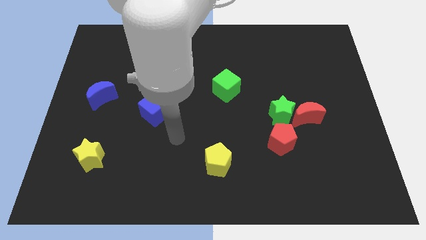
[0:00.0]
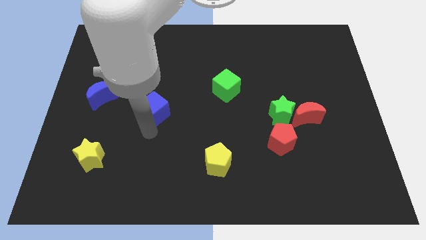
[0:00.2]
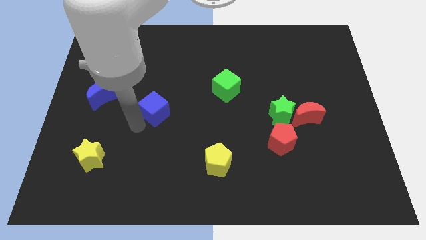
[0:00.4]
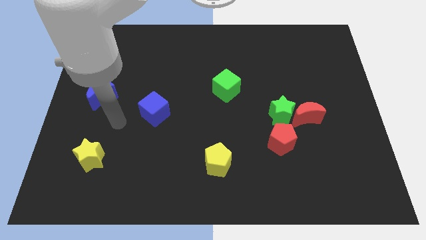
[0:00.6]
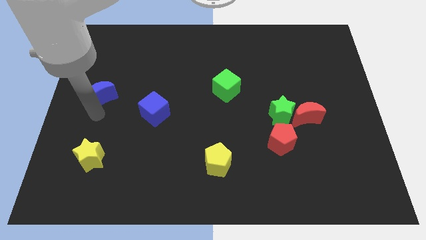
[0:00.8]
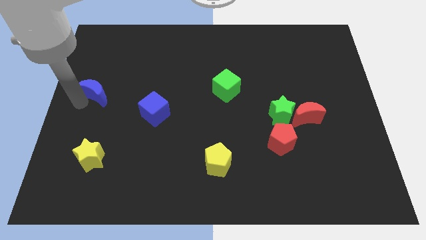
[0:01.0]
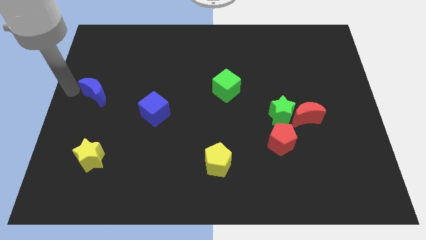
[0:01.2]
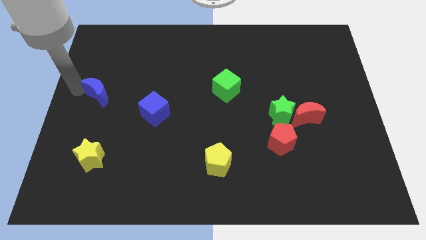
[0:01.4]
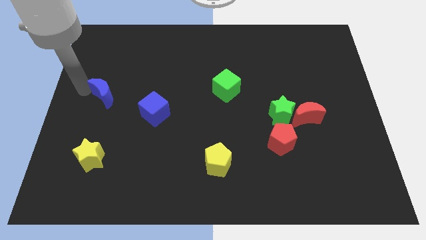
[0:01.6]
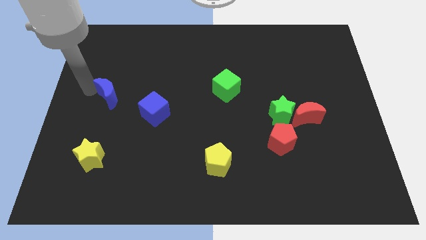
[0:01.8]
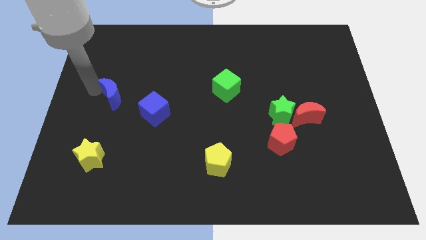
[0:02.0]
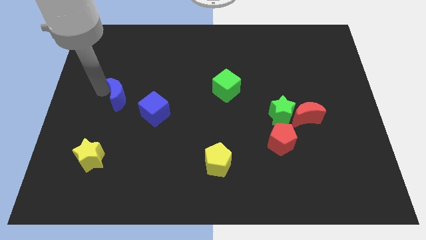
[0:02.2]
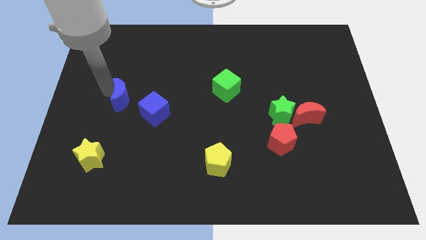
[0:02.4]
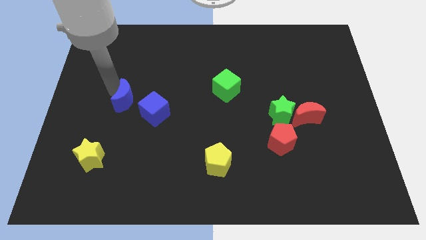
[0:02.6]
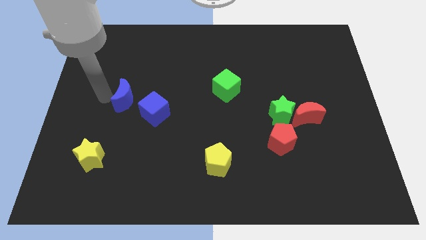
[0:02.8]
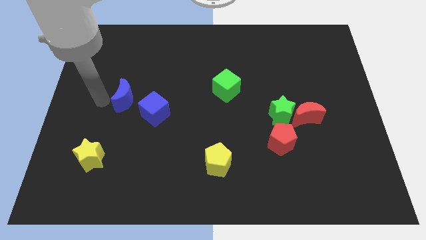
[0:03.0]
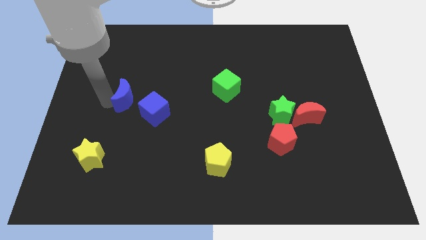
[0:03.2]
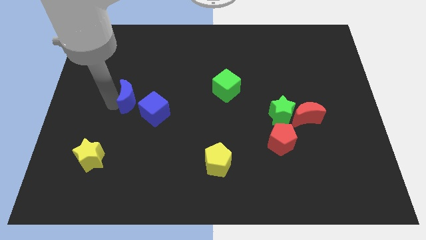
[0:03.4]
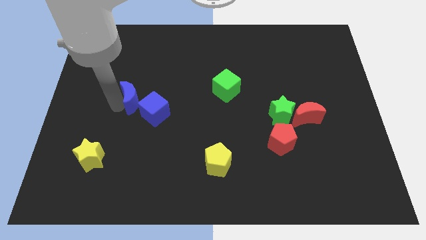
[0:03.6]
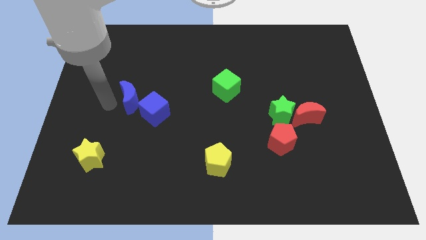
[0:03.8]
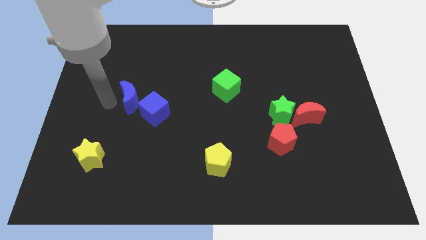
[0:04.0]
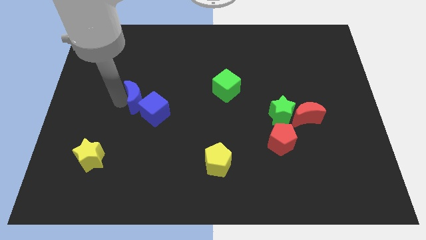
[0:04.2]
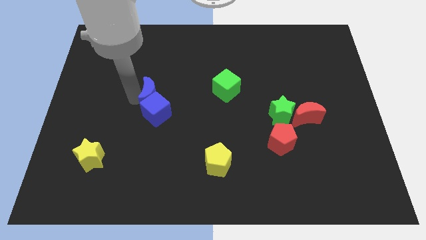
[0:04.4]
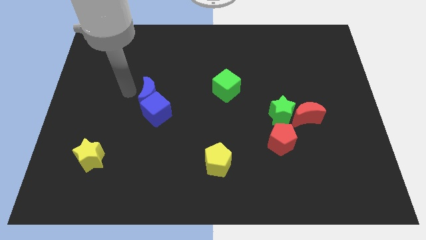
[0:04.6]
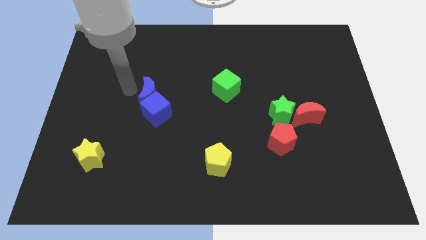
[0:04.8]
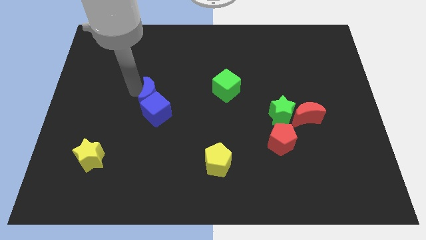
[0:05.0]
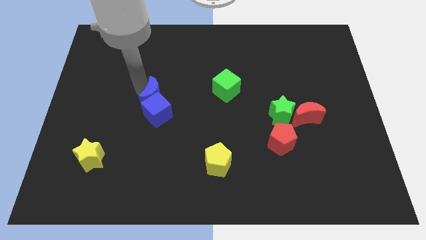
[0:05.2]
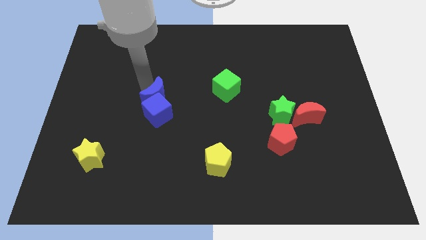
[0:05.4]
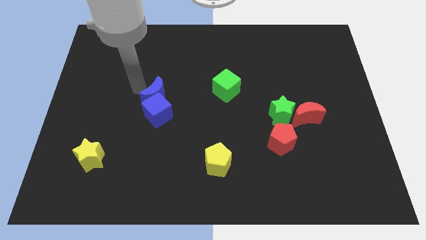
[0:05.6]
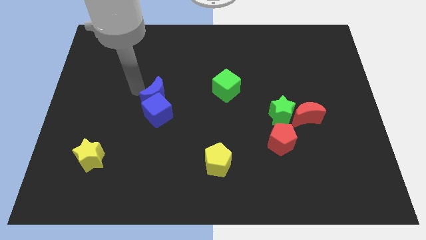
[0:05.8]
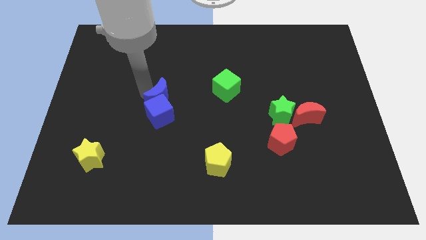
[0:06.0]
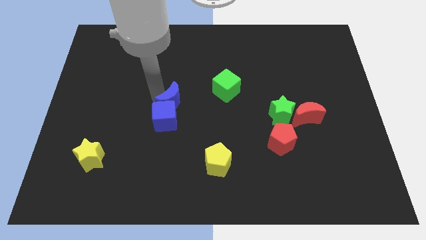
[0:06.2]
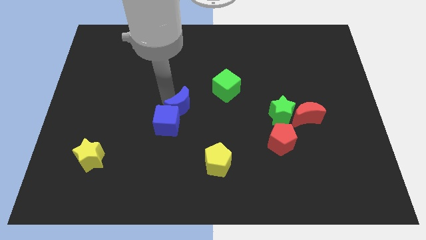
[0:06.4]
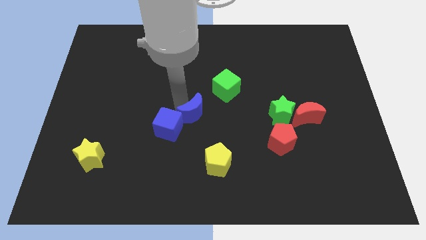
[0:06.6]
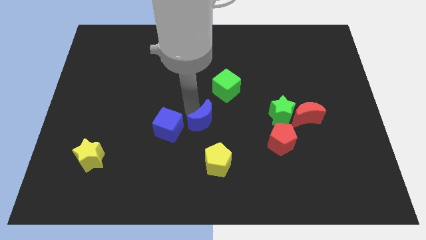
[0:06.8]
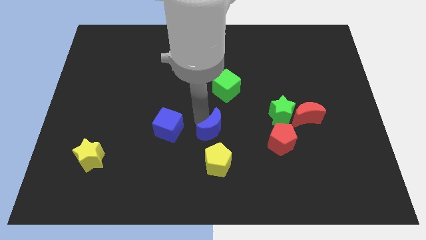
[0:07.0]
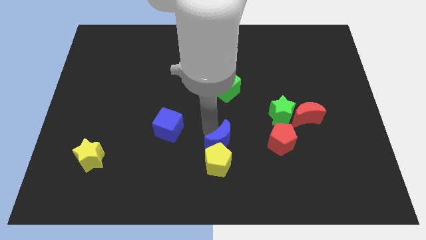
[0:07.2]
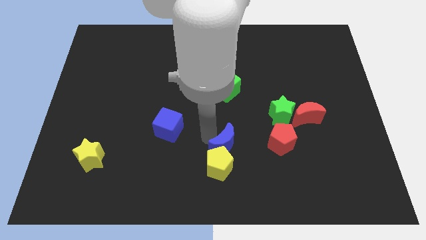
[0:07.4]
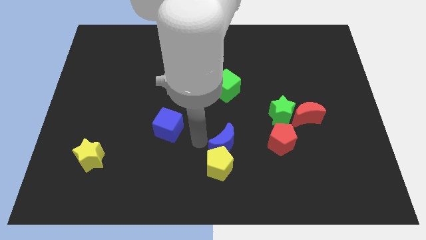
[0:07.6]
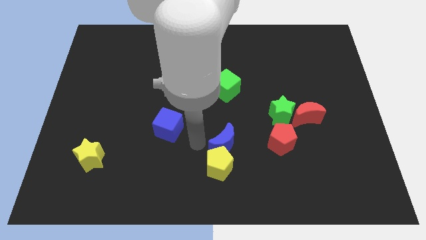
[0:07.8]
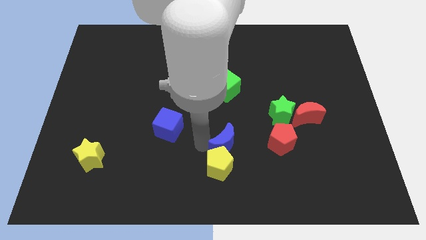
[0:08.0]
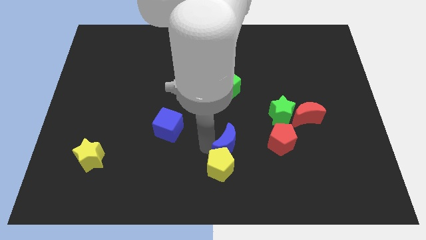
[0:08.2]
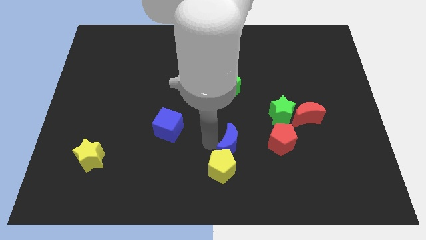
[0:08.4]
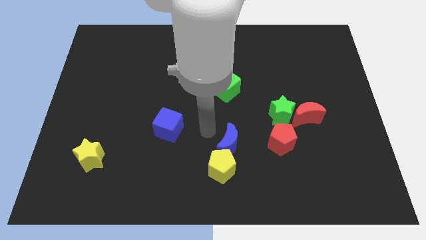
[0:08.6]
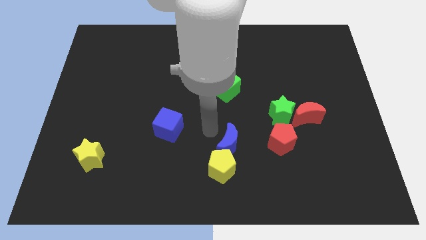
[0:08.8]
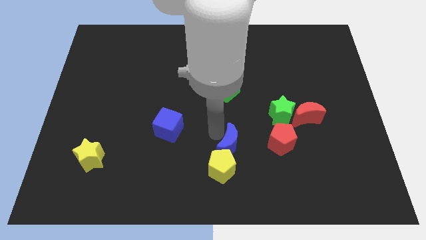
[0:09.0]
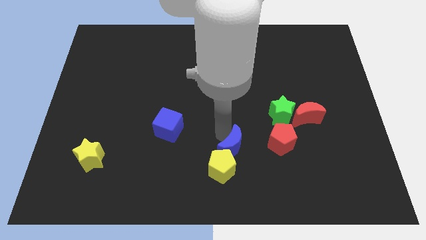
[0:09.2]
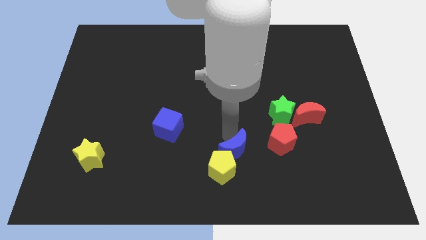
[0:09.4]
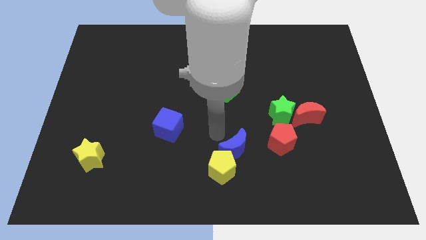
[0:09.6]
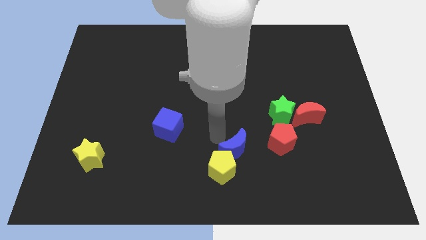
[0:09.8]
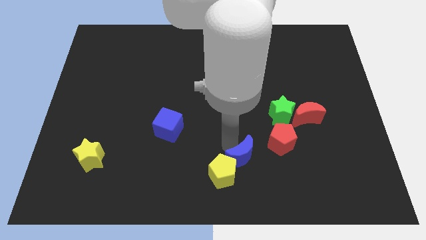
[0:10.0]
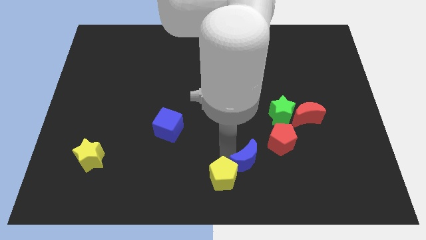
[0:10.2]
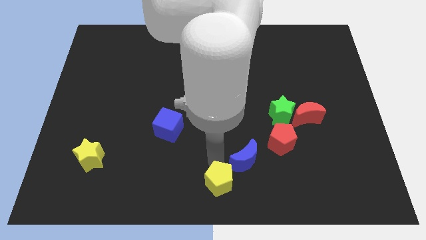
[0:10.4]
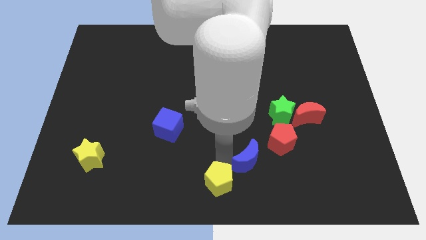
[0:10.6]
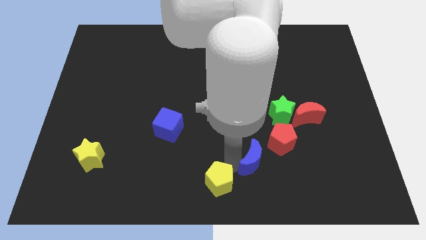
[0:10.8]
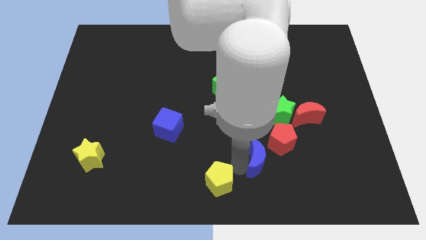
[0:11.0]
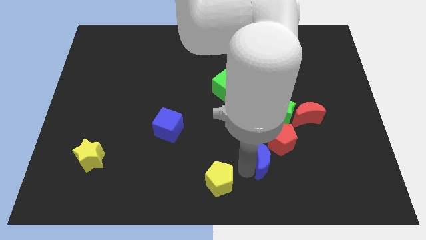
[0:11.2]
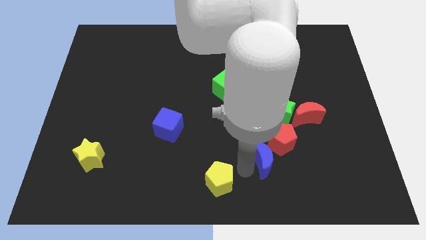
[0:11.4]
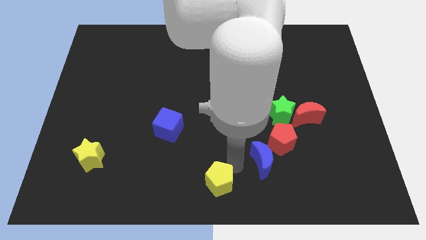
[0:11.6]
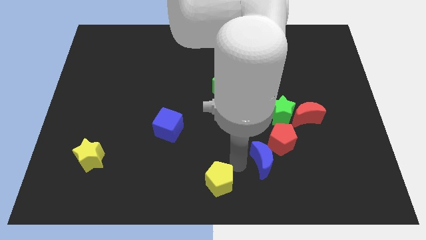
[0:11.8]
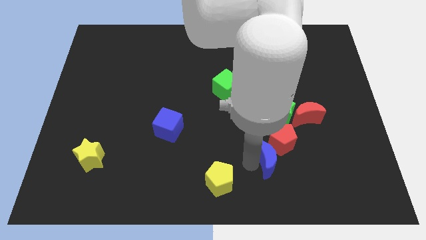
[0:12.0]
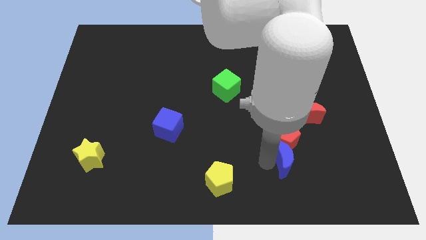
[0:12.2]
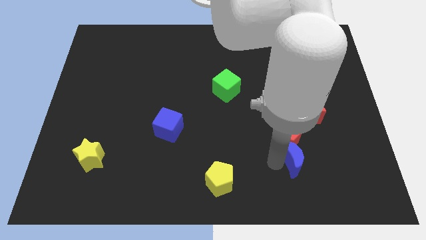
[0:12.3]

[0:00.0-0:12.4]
put the blue moon to the bottom side of the red moon

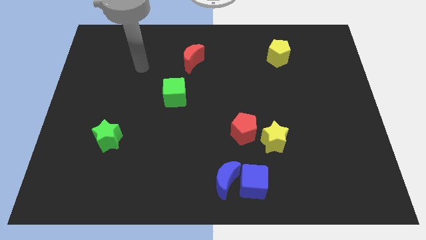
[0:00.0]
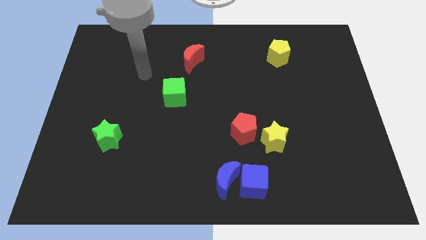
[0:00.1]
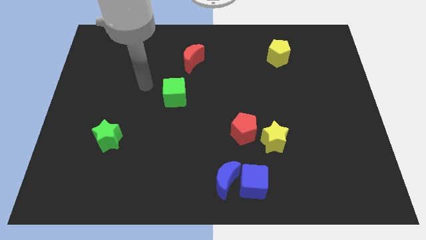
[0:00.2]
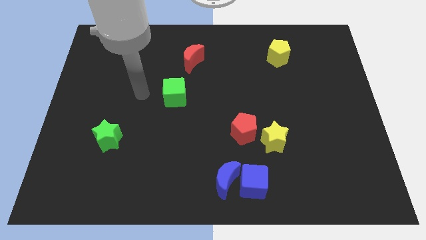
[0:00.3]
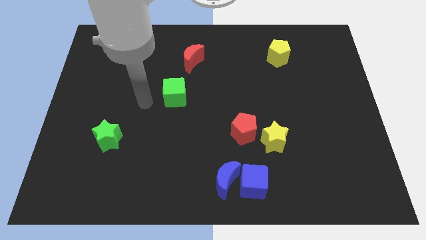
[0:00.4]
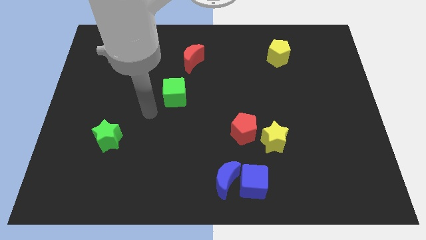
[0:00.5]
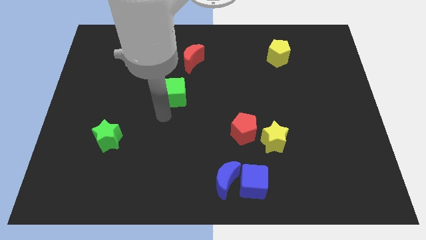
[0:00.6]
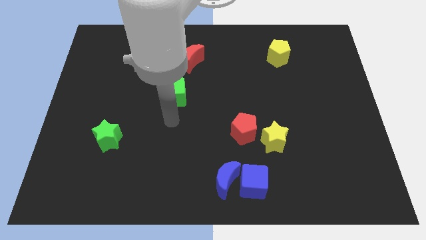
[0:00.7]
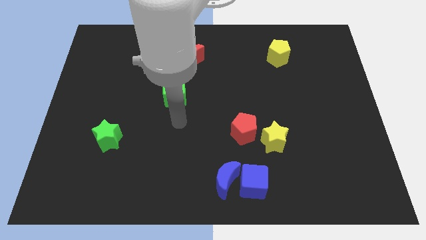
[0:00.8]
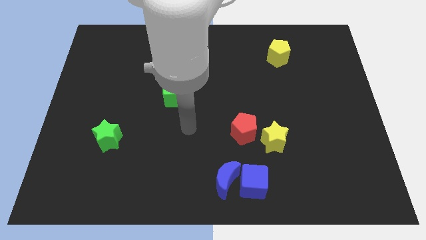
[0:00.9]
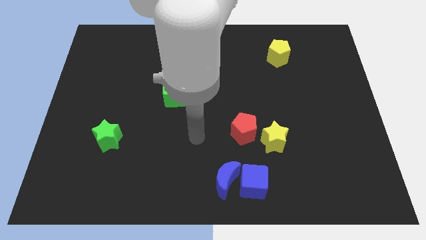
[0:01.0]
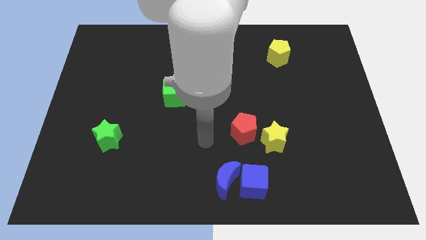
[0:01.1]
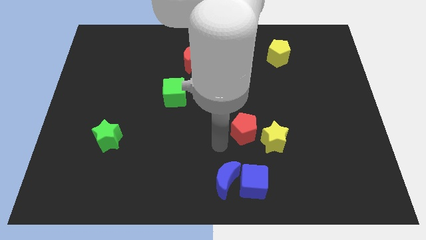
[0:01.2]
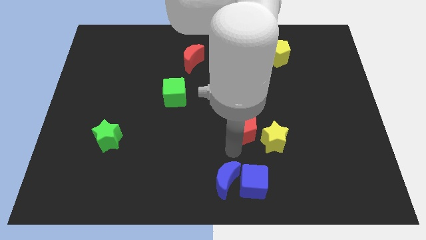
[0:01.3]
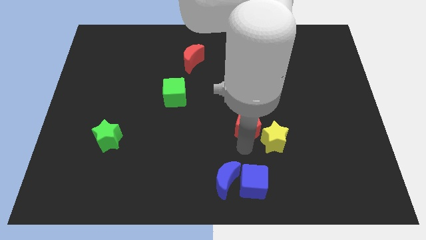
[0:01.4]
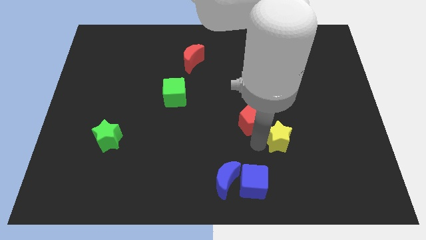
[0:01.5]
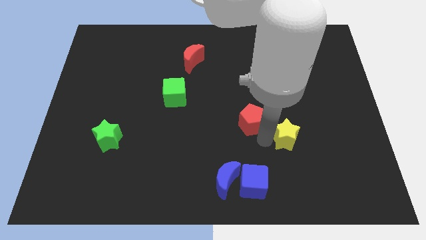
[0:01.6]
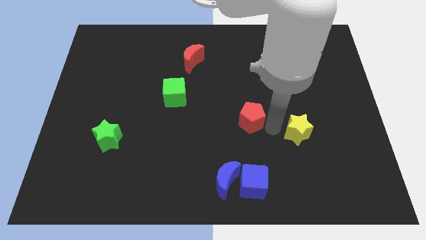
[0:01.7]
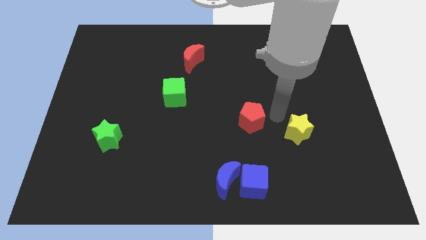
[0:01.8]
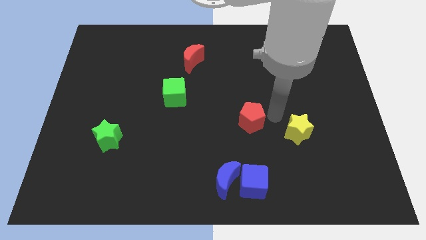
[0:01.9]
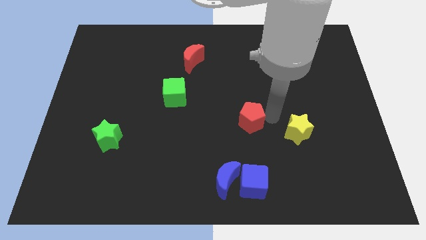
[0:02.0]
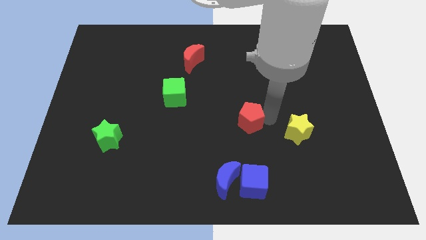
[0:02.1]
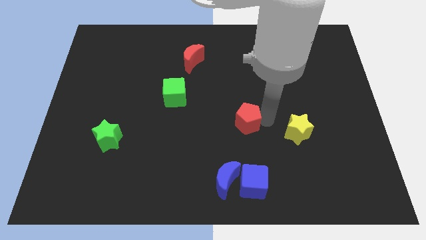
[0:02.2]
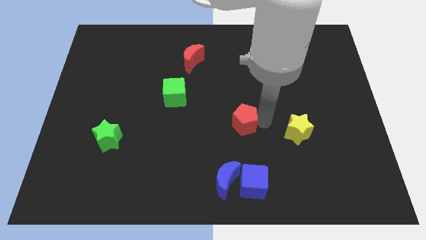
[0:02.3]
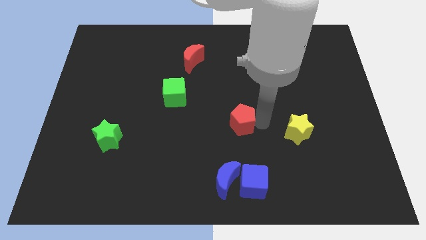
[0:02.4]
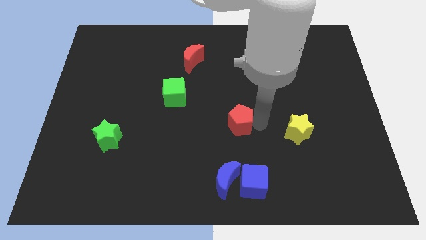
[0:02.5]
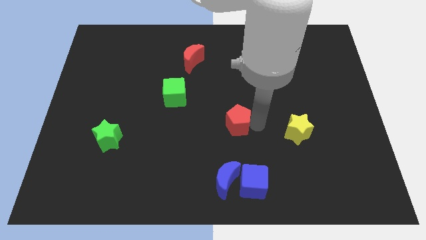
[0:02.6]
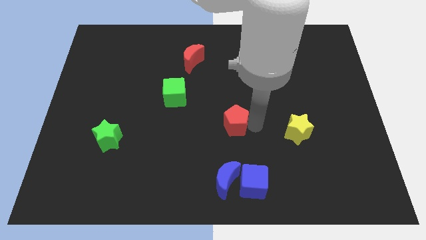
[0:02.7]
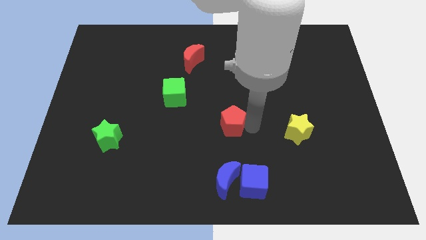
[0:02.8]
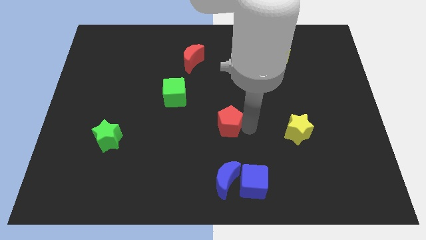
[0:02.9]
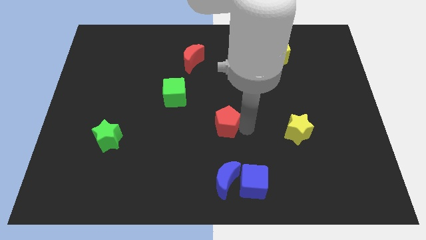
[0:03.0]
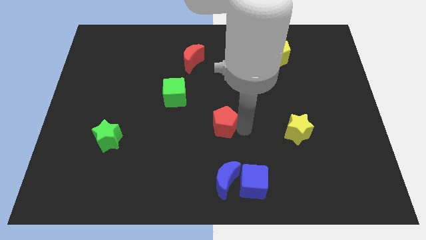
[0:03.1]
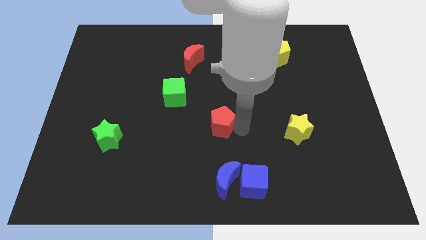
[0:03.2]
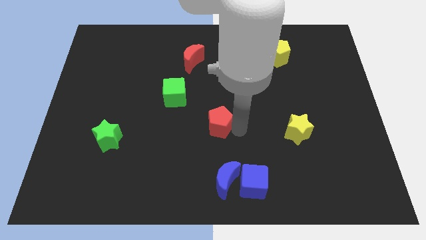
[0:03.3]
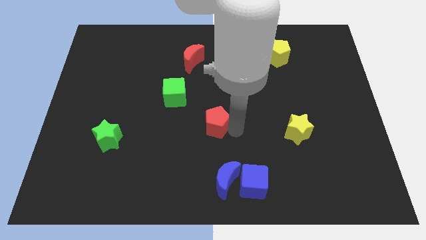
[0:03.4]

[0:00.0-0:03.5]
push the red pentagon to the bottom right side of the green cube
